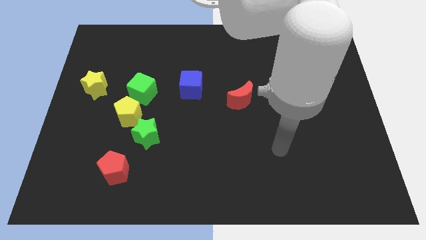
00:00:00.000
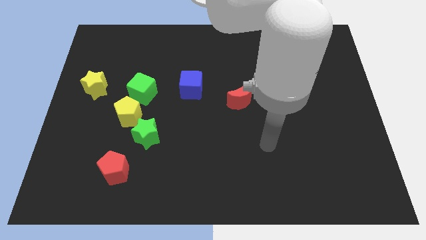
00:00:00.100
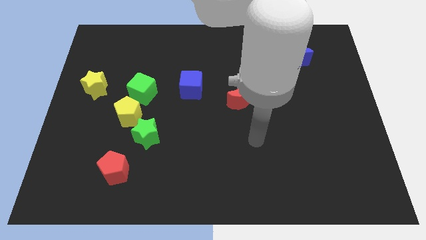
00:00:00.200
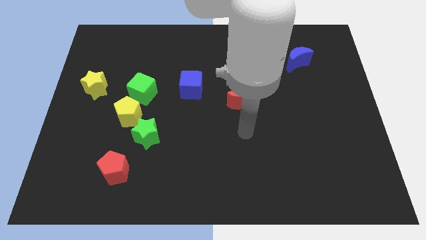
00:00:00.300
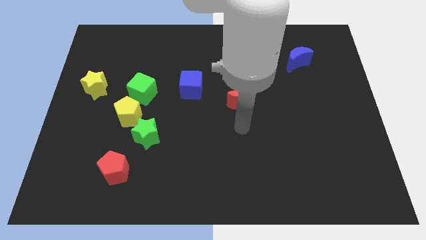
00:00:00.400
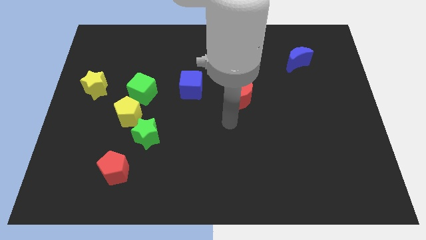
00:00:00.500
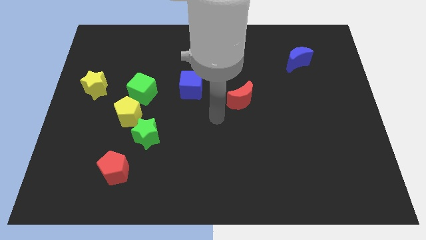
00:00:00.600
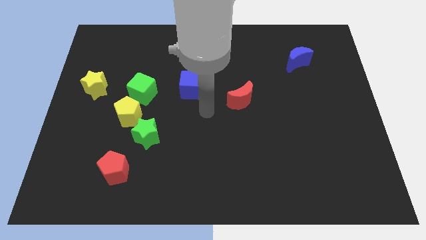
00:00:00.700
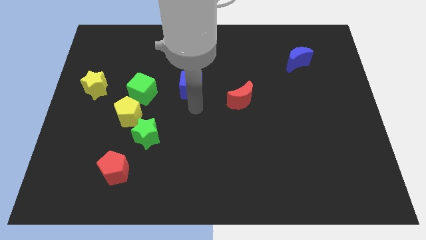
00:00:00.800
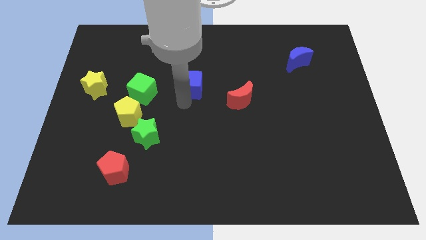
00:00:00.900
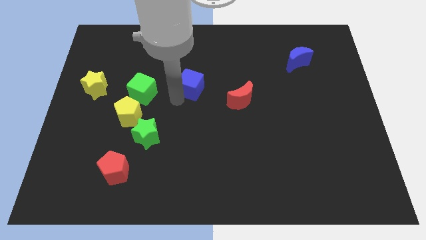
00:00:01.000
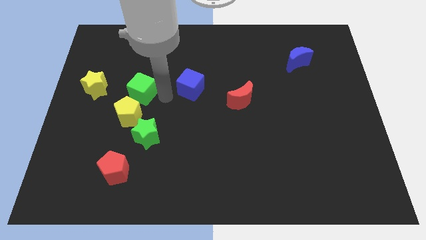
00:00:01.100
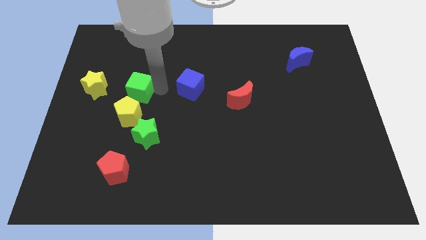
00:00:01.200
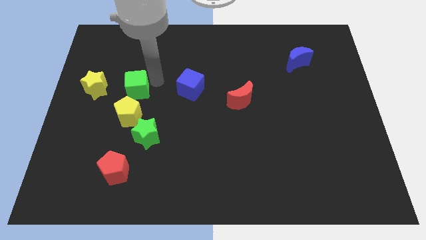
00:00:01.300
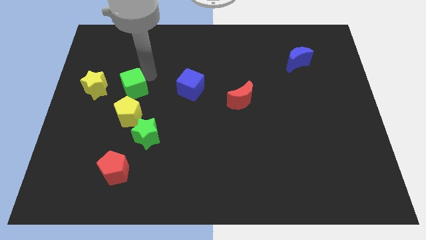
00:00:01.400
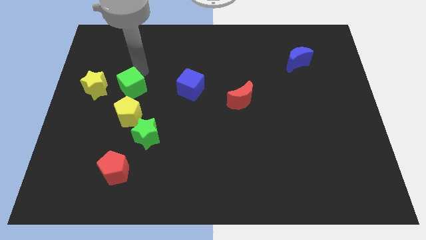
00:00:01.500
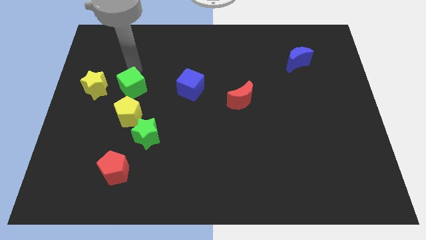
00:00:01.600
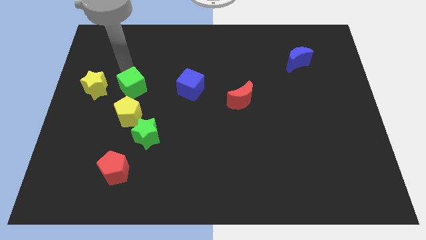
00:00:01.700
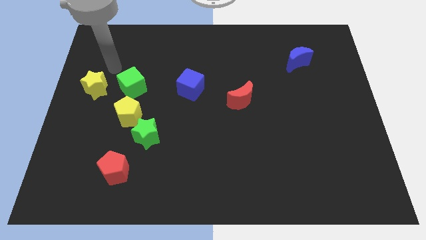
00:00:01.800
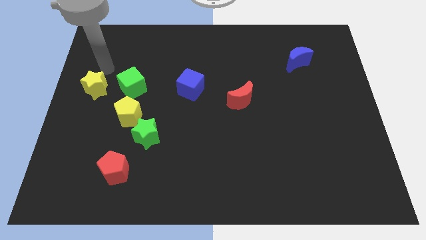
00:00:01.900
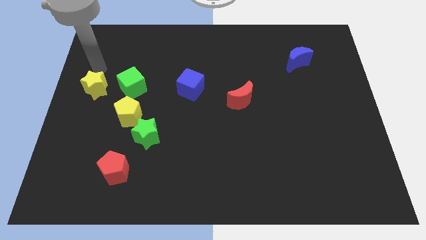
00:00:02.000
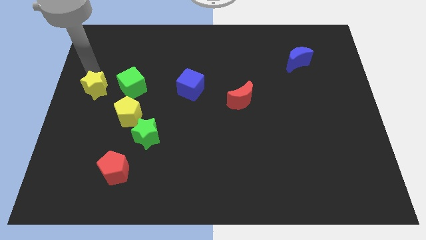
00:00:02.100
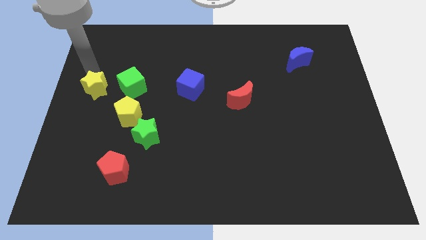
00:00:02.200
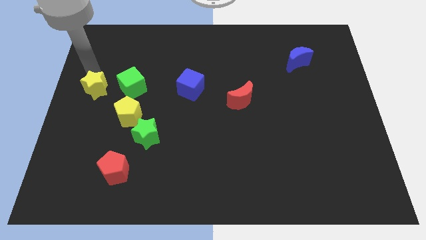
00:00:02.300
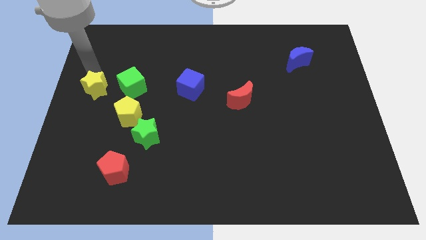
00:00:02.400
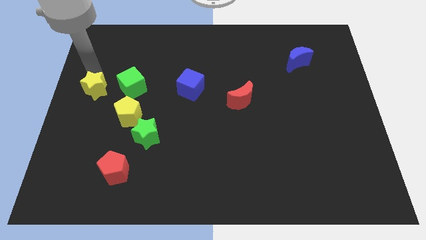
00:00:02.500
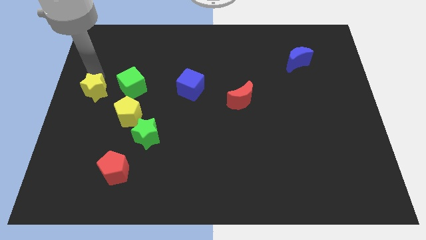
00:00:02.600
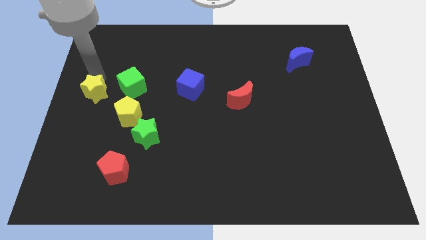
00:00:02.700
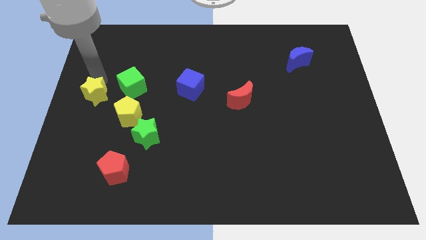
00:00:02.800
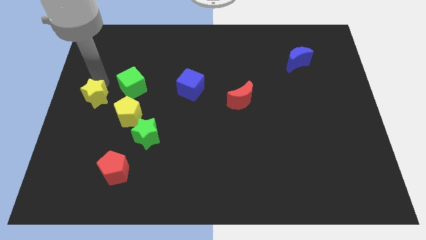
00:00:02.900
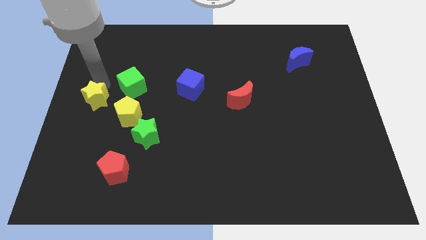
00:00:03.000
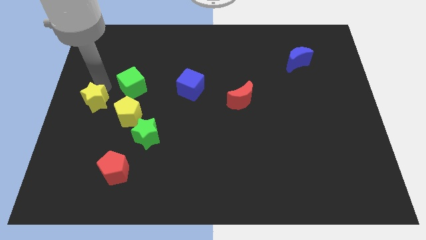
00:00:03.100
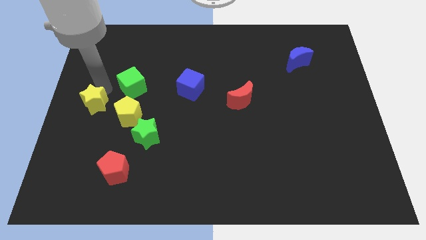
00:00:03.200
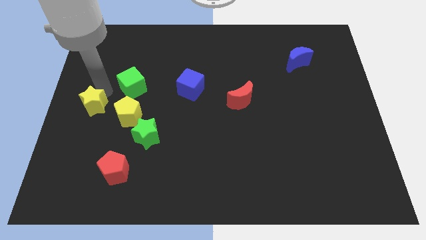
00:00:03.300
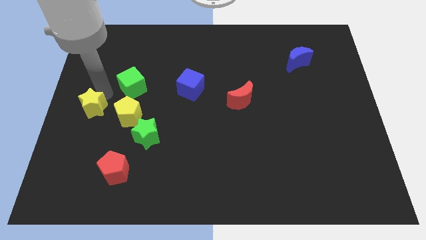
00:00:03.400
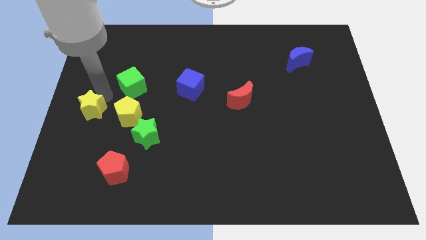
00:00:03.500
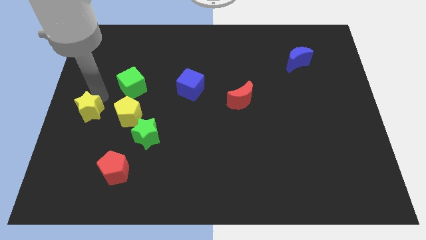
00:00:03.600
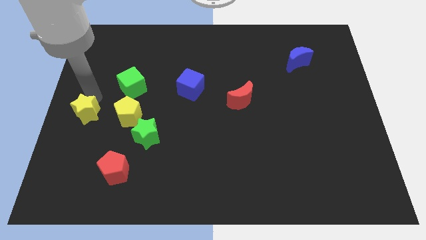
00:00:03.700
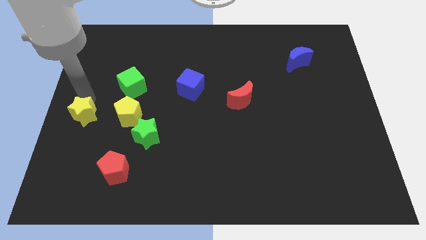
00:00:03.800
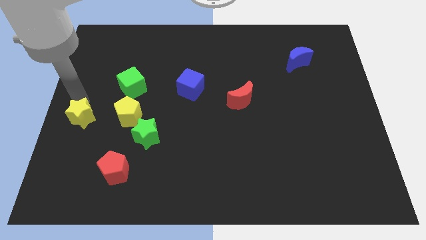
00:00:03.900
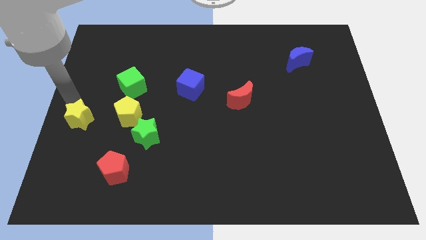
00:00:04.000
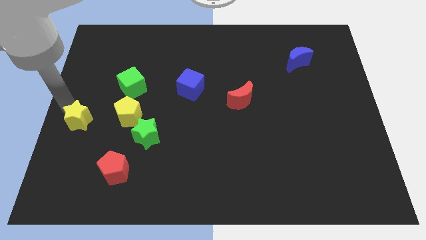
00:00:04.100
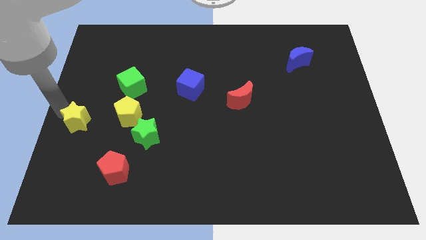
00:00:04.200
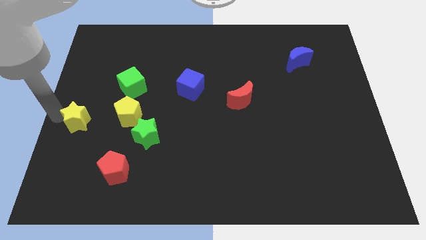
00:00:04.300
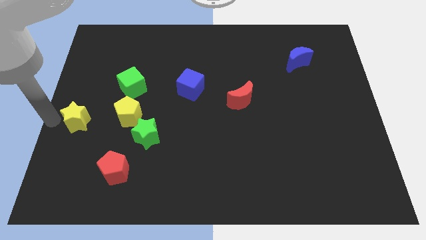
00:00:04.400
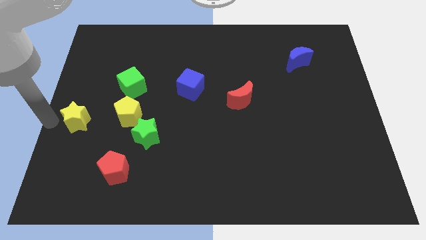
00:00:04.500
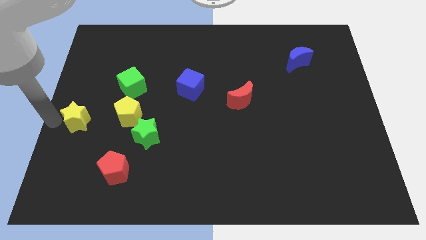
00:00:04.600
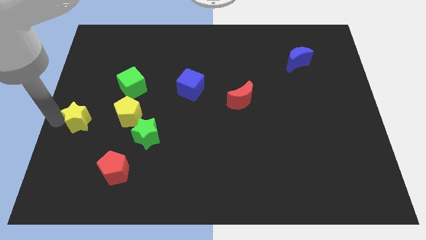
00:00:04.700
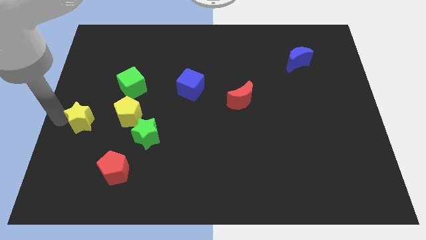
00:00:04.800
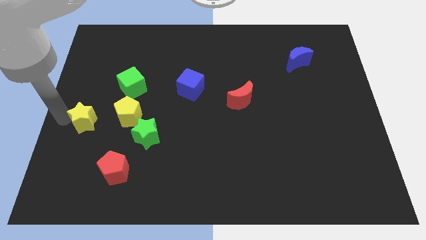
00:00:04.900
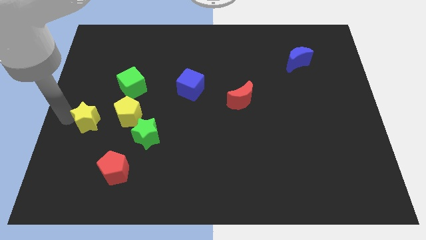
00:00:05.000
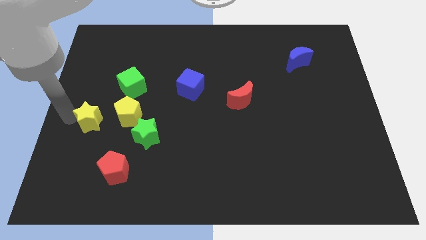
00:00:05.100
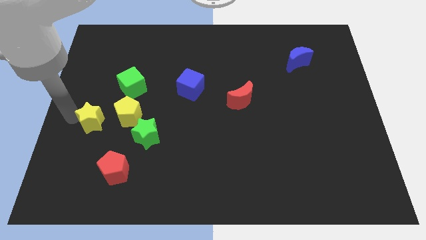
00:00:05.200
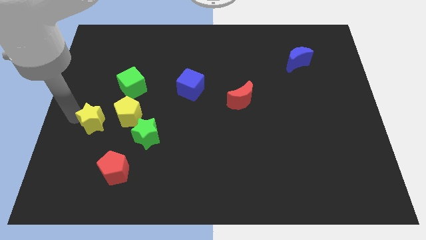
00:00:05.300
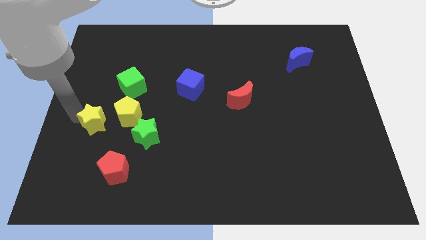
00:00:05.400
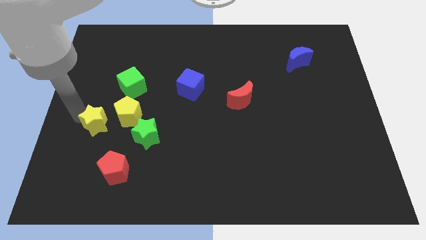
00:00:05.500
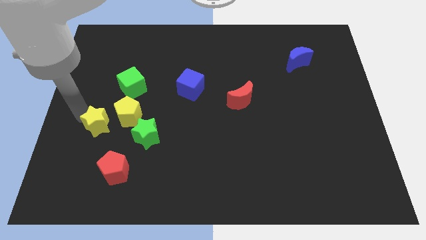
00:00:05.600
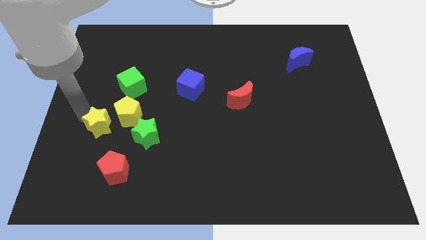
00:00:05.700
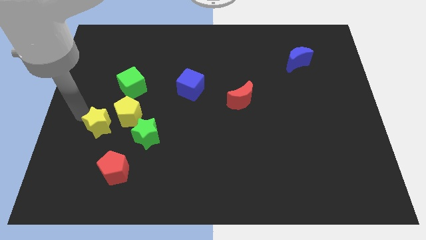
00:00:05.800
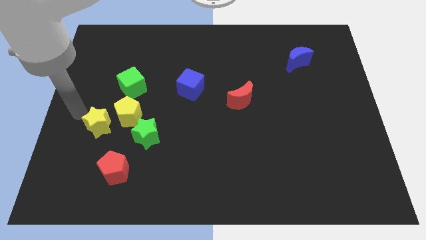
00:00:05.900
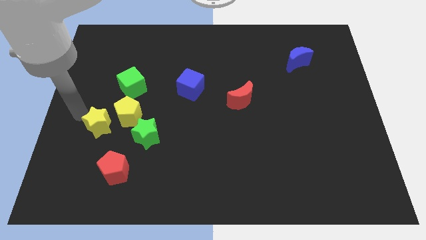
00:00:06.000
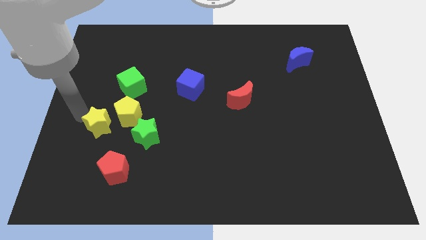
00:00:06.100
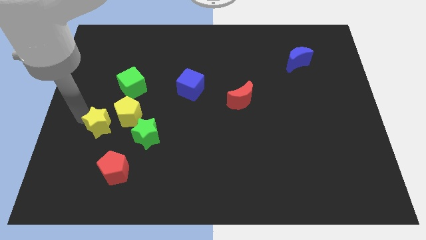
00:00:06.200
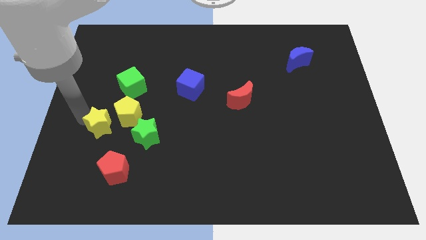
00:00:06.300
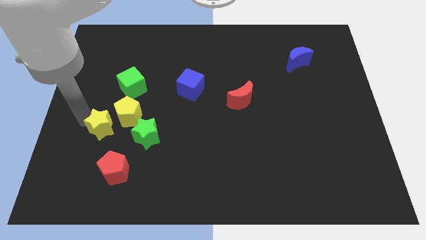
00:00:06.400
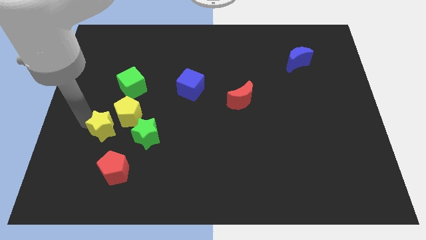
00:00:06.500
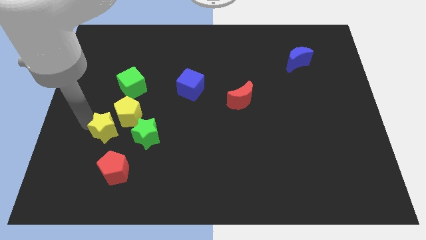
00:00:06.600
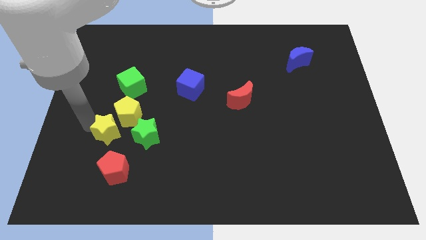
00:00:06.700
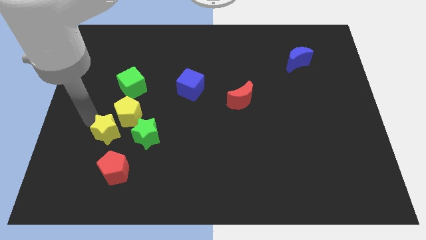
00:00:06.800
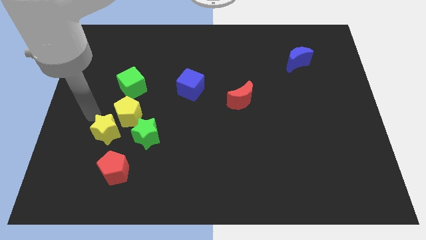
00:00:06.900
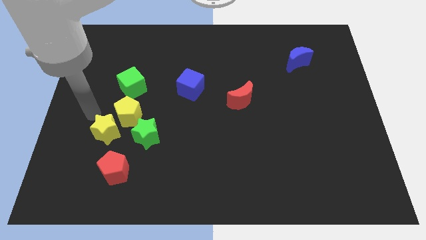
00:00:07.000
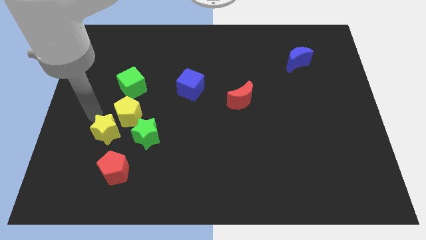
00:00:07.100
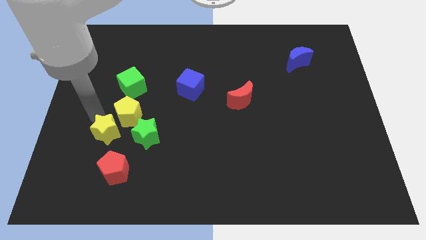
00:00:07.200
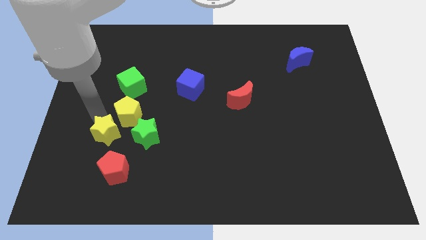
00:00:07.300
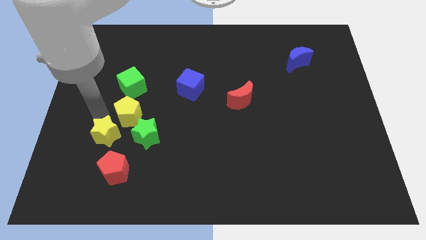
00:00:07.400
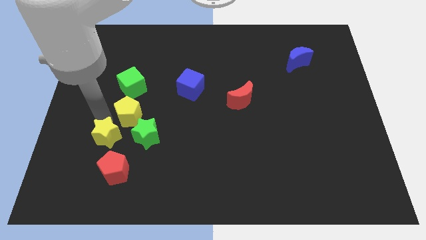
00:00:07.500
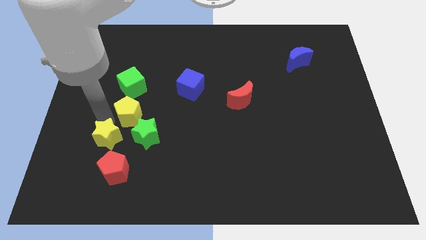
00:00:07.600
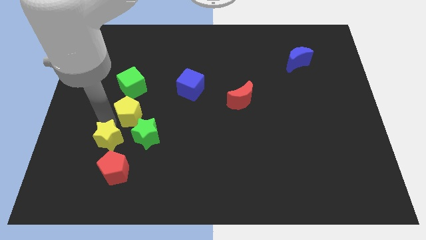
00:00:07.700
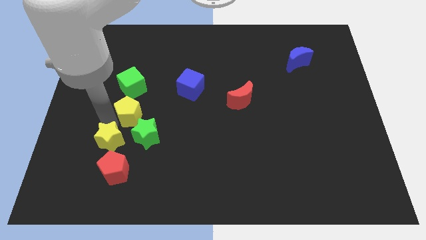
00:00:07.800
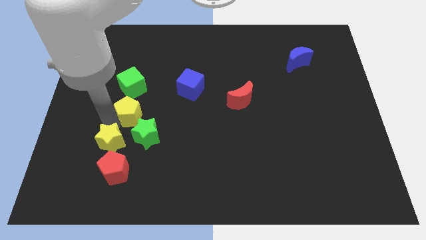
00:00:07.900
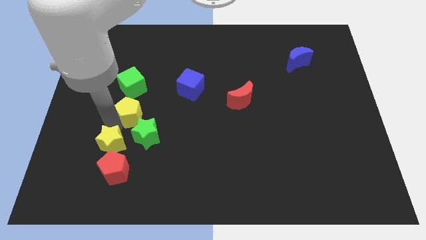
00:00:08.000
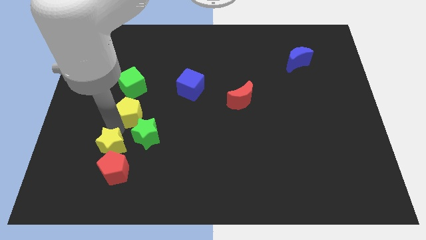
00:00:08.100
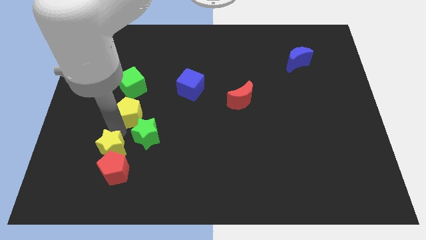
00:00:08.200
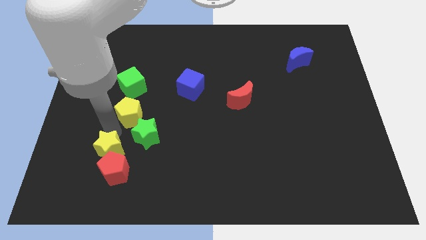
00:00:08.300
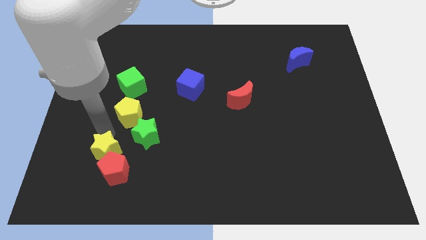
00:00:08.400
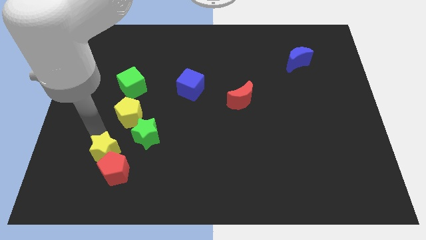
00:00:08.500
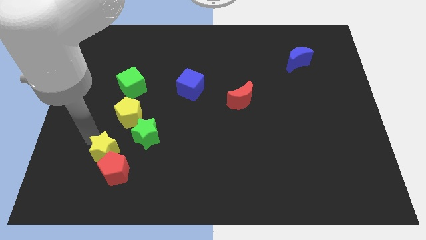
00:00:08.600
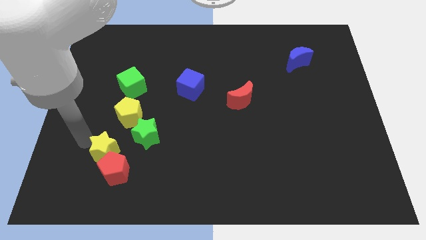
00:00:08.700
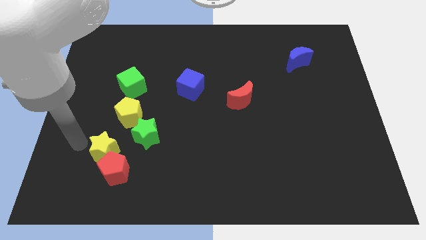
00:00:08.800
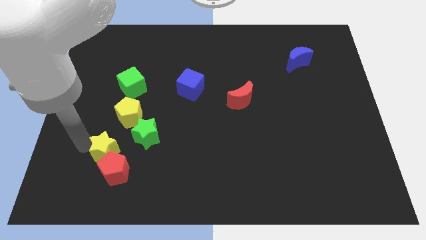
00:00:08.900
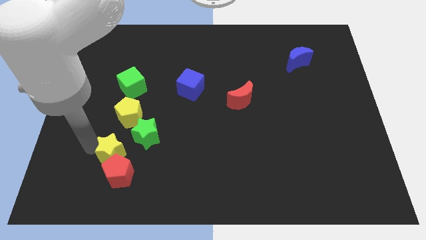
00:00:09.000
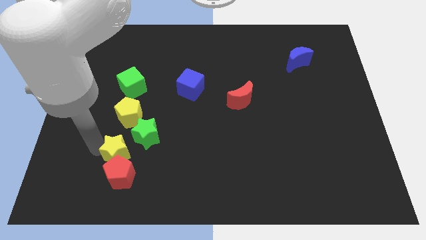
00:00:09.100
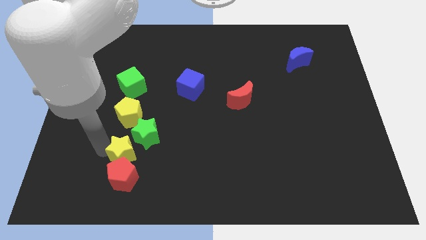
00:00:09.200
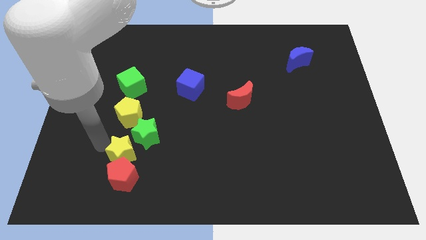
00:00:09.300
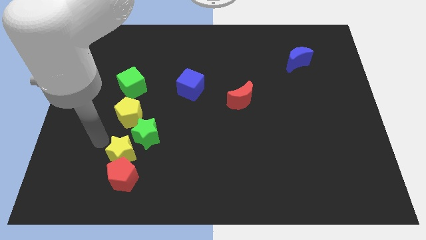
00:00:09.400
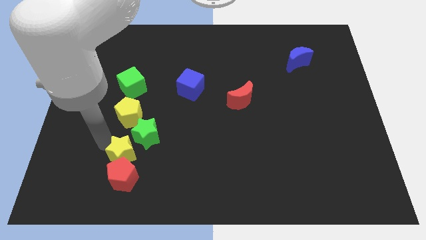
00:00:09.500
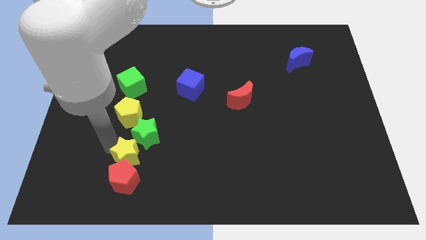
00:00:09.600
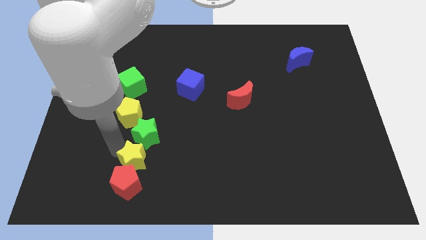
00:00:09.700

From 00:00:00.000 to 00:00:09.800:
move the yellow star down and to the right diagonally
